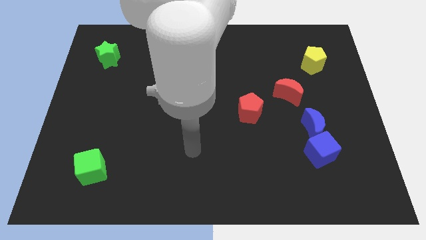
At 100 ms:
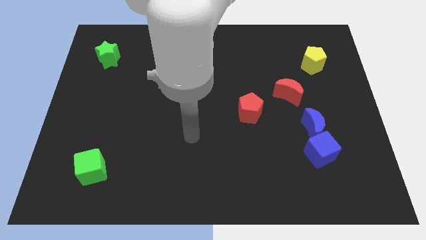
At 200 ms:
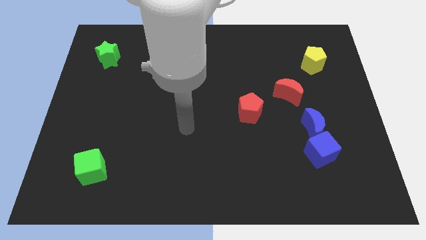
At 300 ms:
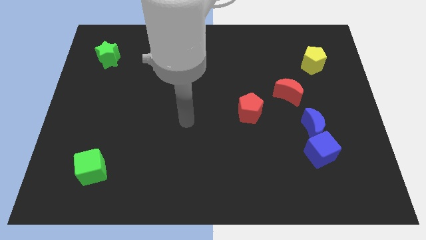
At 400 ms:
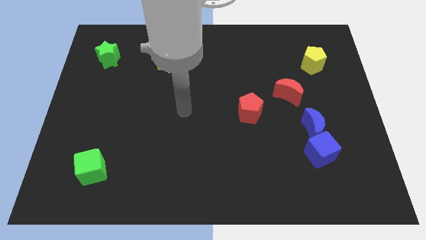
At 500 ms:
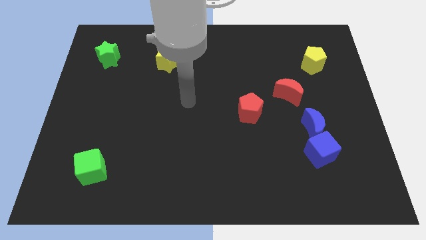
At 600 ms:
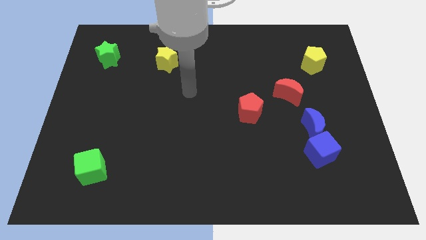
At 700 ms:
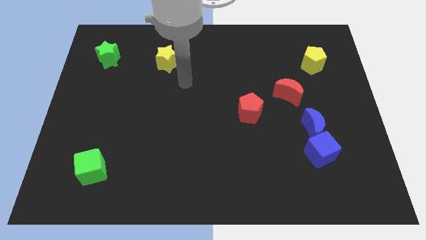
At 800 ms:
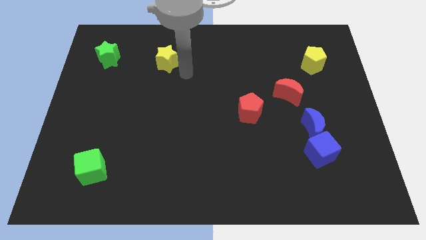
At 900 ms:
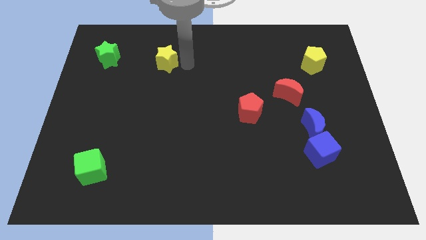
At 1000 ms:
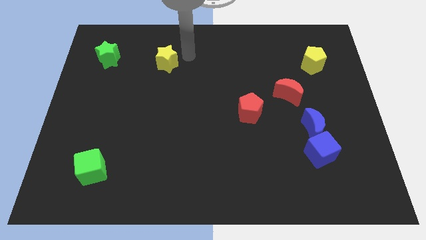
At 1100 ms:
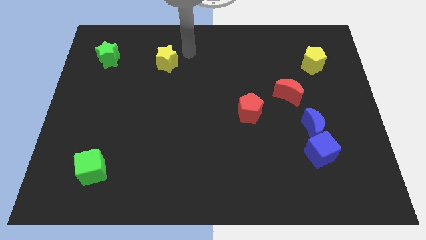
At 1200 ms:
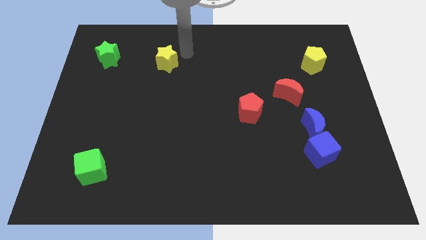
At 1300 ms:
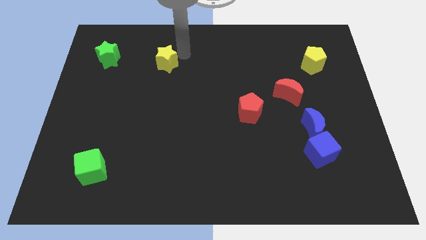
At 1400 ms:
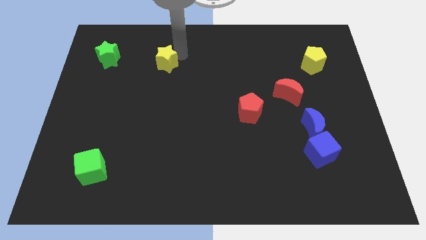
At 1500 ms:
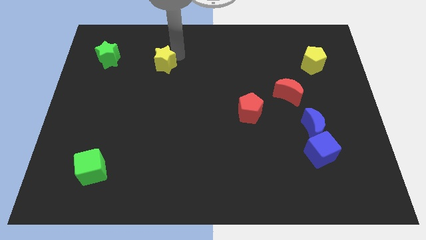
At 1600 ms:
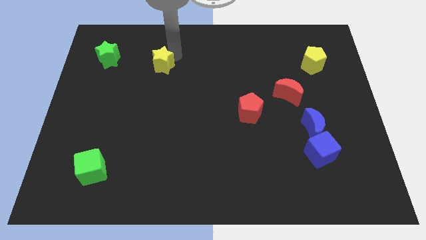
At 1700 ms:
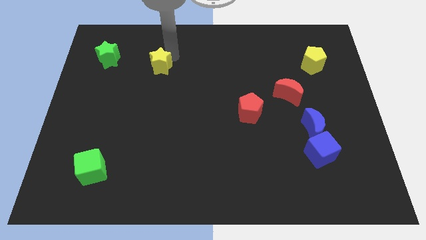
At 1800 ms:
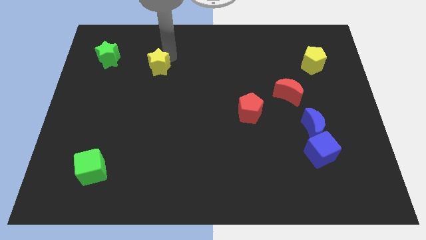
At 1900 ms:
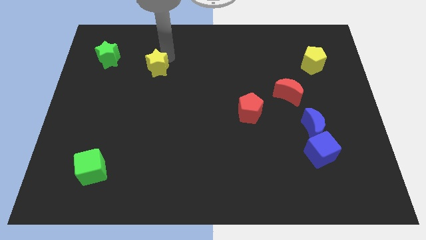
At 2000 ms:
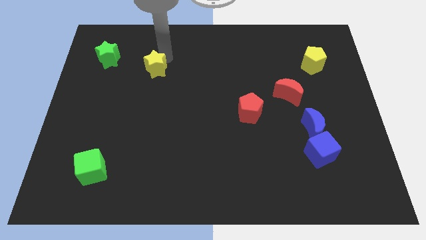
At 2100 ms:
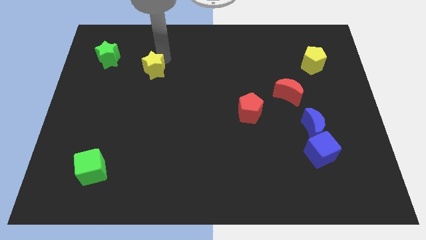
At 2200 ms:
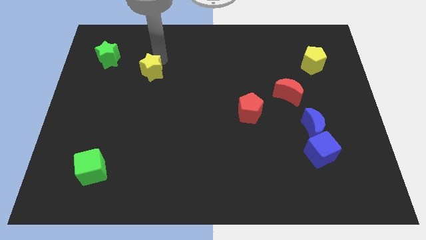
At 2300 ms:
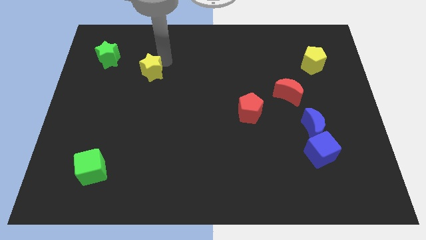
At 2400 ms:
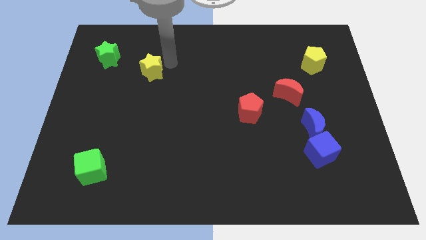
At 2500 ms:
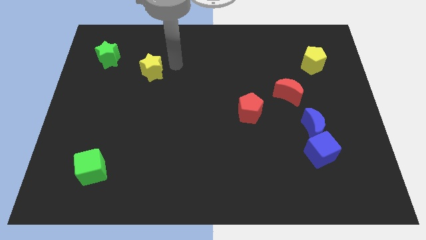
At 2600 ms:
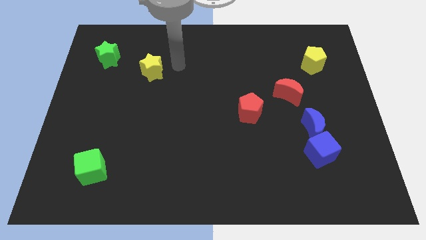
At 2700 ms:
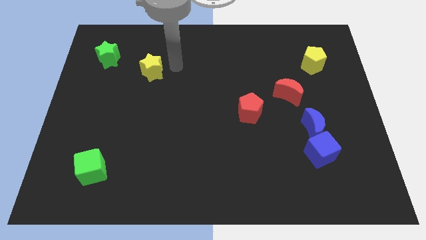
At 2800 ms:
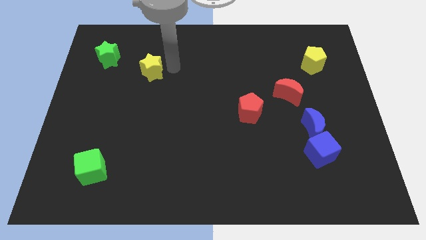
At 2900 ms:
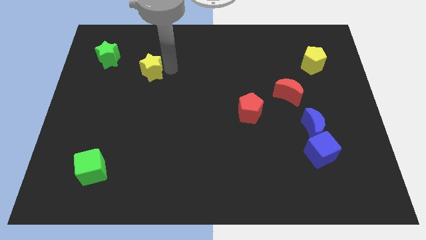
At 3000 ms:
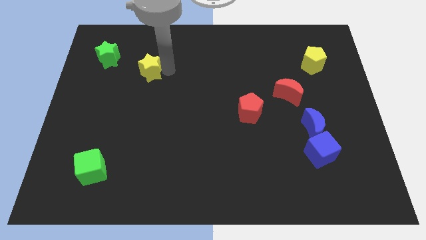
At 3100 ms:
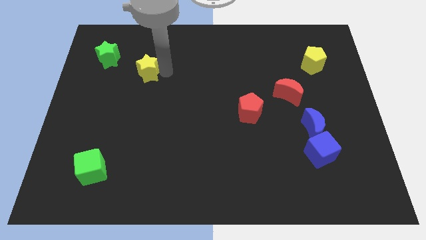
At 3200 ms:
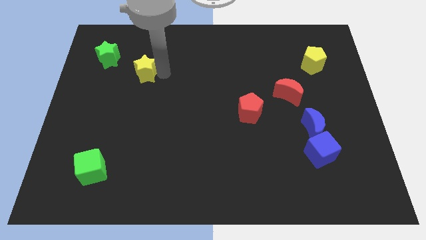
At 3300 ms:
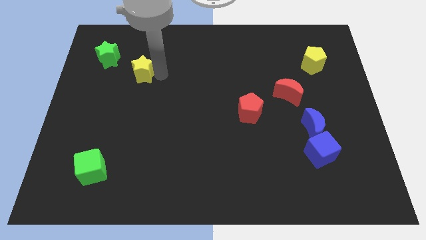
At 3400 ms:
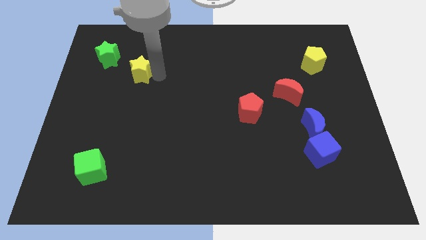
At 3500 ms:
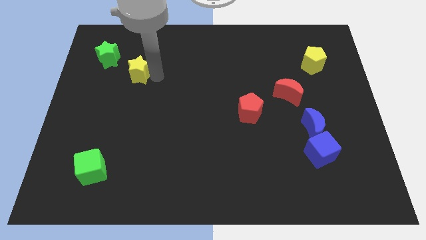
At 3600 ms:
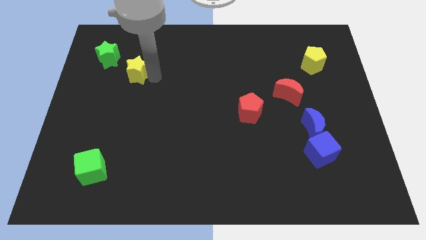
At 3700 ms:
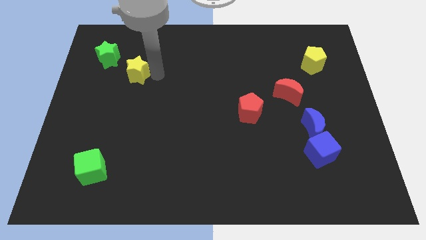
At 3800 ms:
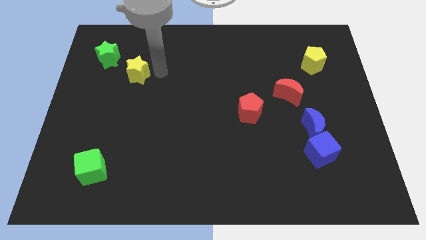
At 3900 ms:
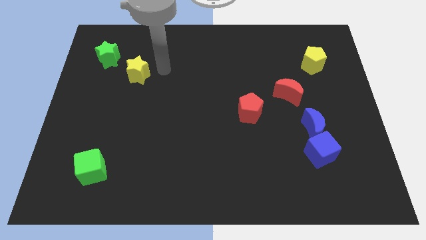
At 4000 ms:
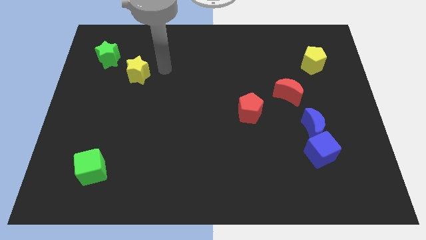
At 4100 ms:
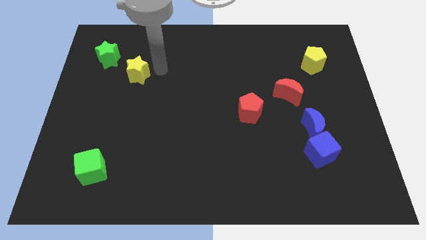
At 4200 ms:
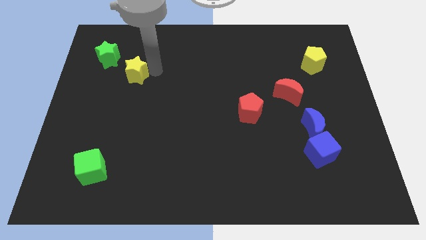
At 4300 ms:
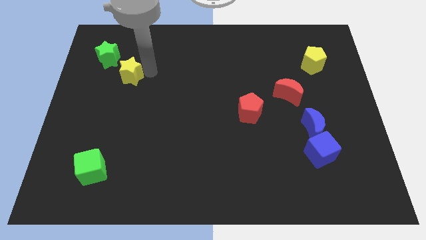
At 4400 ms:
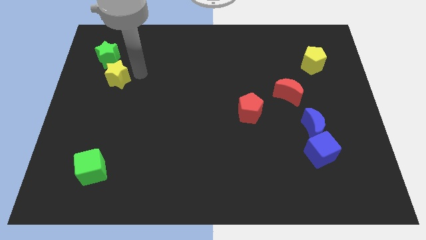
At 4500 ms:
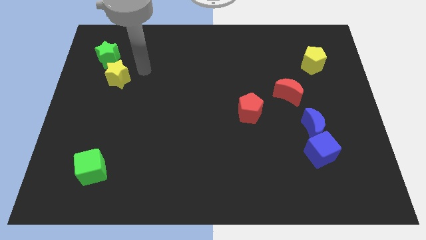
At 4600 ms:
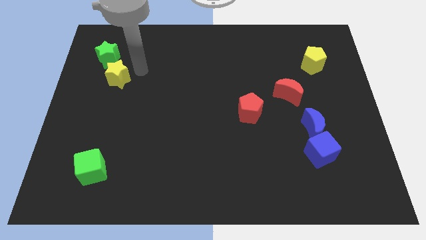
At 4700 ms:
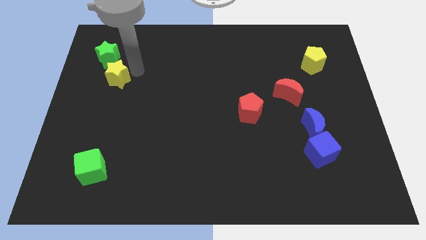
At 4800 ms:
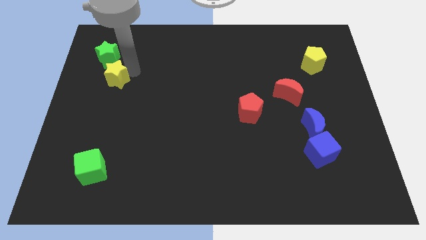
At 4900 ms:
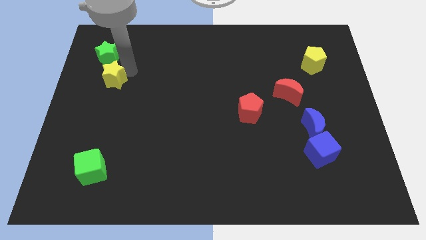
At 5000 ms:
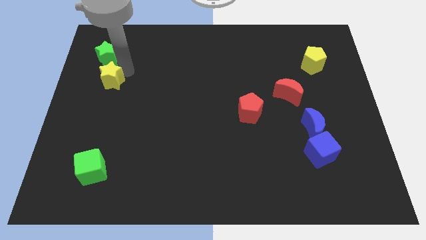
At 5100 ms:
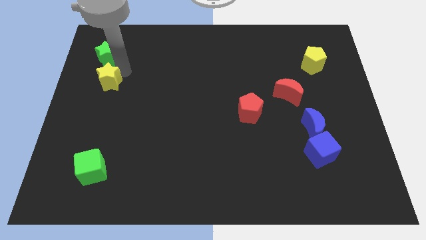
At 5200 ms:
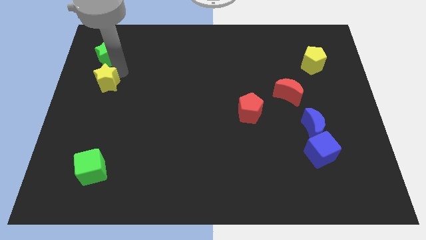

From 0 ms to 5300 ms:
put the yellow star to the left side
